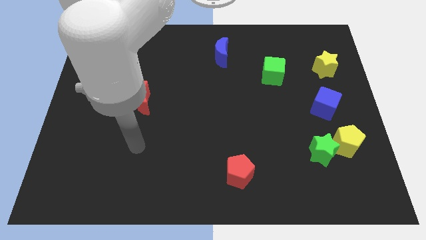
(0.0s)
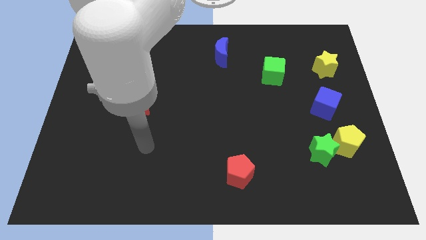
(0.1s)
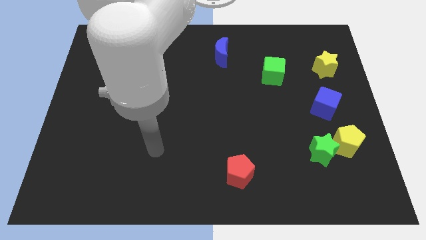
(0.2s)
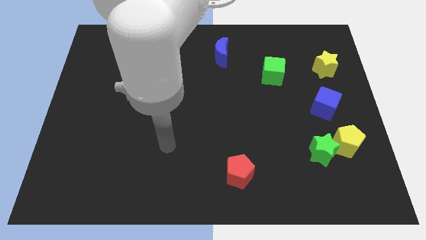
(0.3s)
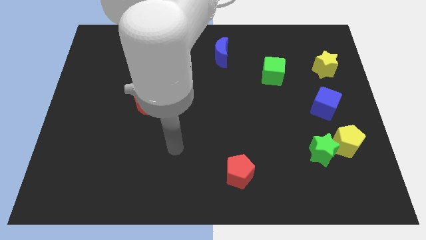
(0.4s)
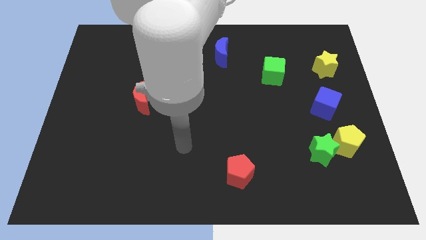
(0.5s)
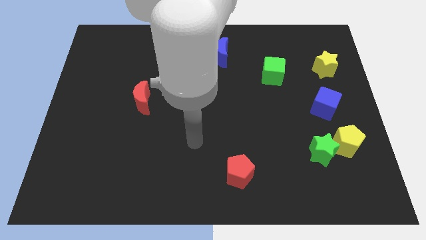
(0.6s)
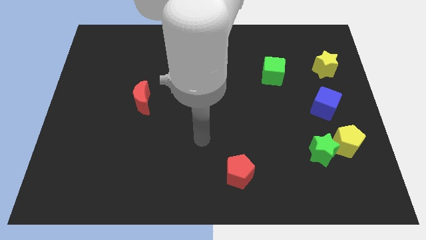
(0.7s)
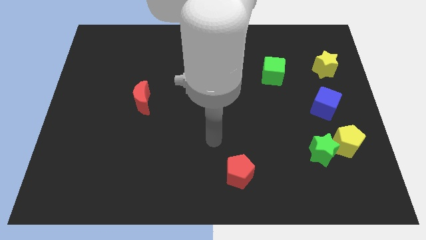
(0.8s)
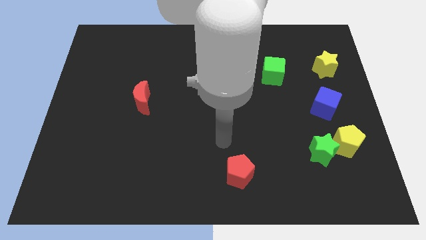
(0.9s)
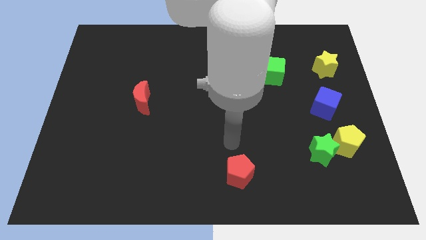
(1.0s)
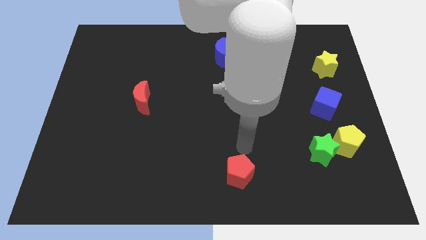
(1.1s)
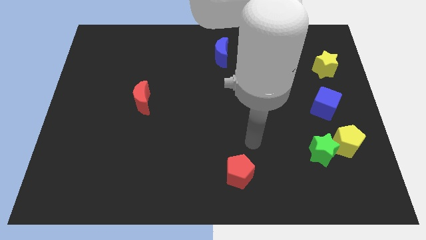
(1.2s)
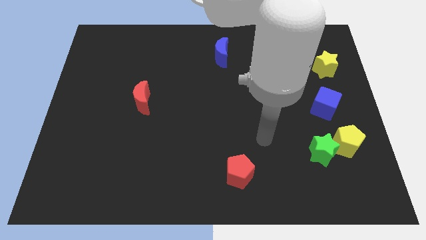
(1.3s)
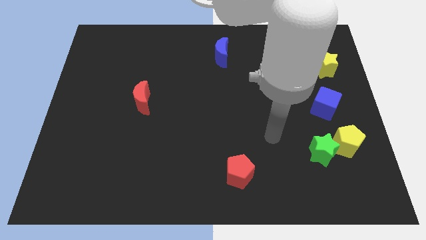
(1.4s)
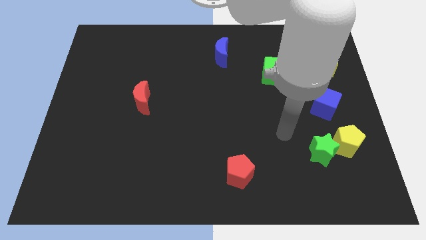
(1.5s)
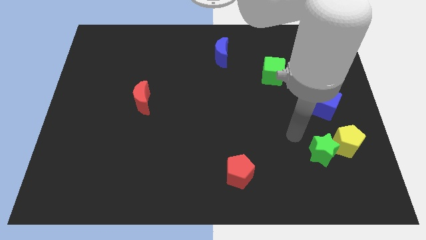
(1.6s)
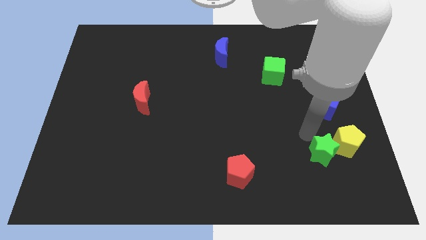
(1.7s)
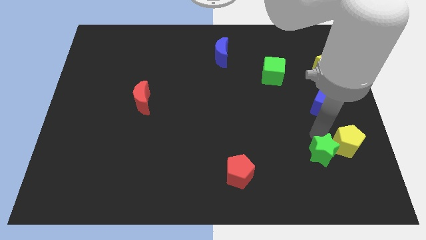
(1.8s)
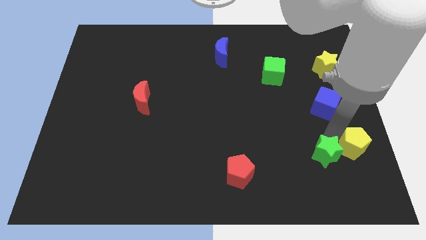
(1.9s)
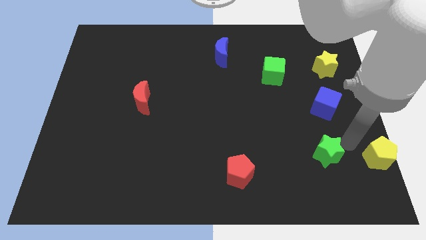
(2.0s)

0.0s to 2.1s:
separate the green star from the yellow pentagon

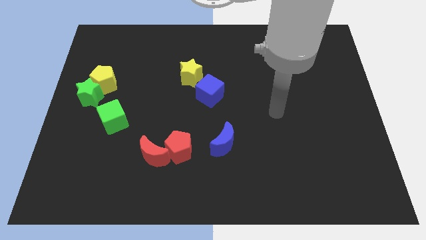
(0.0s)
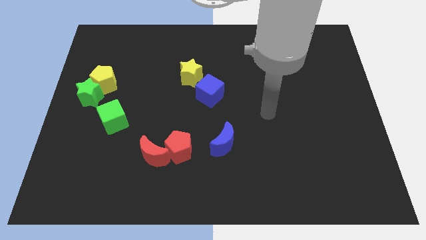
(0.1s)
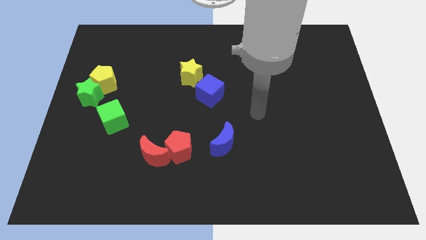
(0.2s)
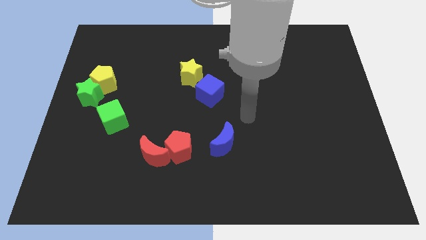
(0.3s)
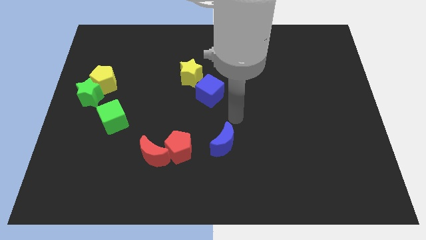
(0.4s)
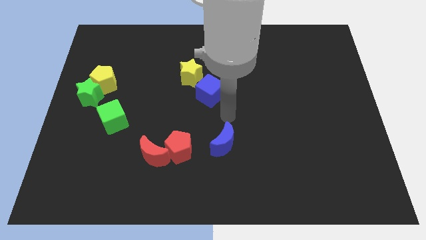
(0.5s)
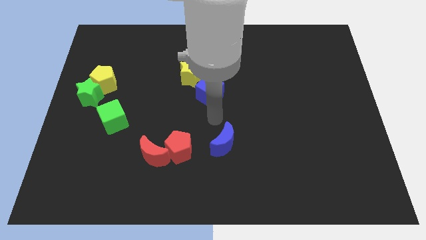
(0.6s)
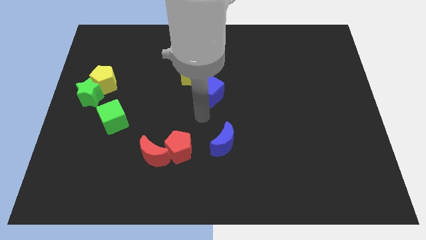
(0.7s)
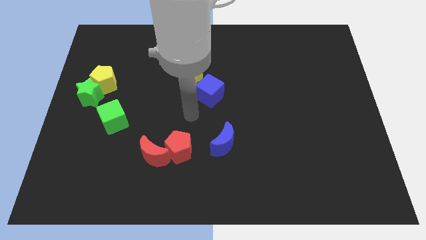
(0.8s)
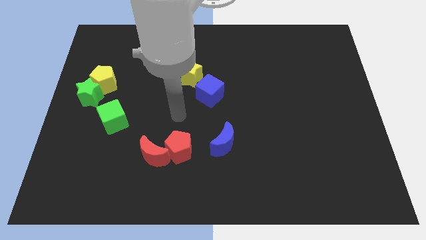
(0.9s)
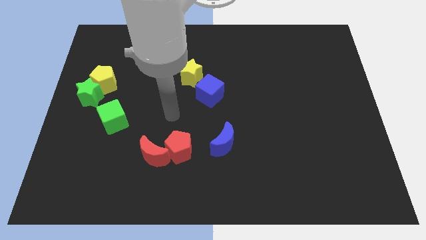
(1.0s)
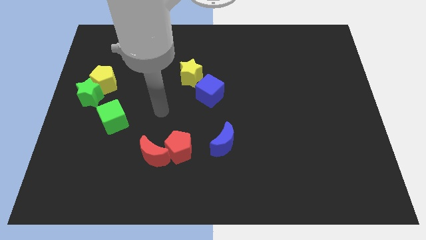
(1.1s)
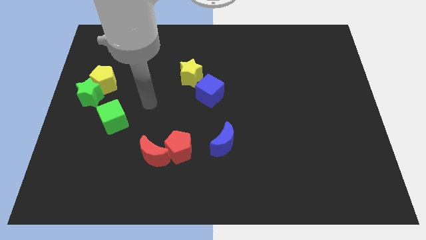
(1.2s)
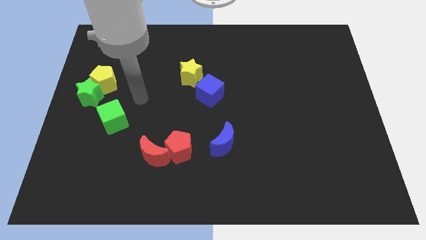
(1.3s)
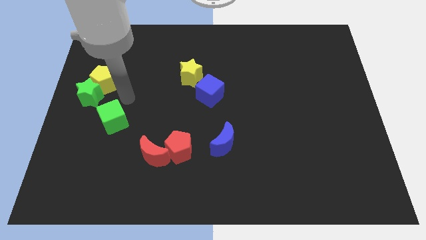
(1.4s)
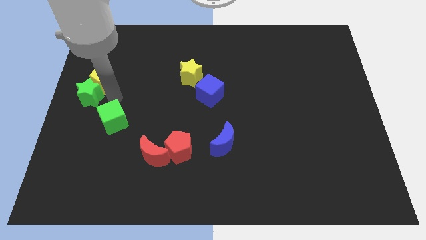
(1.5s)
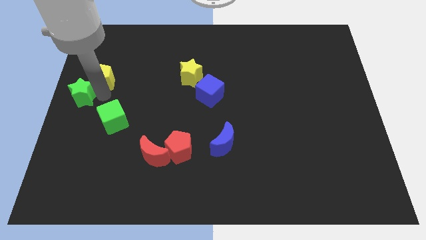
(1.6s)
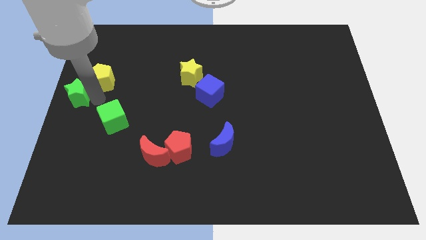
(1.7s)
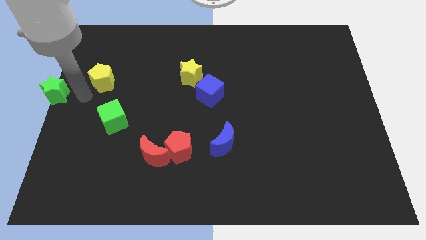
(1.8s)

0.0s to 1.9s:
move the yellow pentagon away from the green star

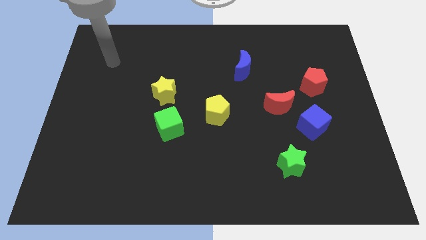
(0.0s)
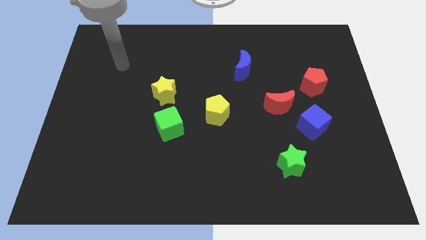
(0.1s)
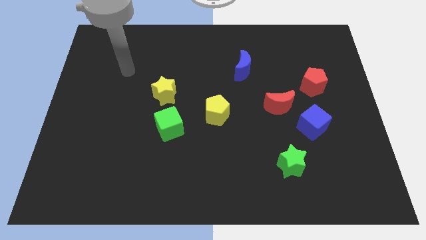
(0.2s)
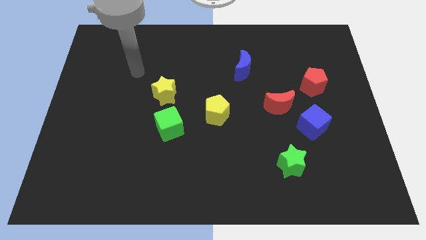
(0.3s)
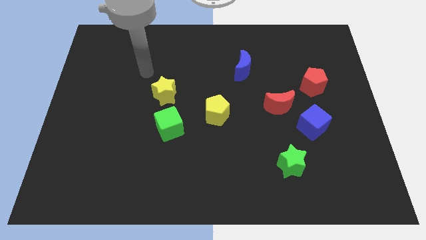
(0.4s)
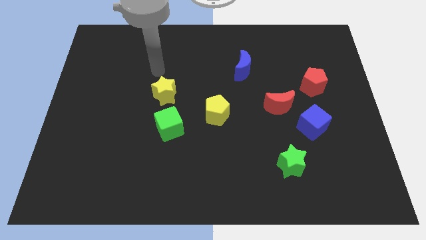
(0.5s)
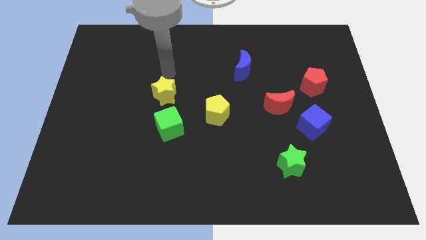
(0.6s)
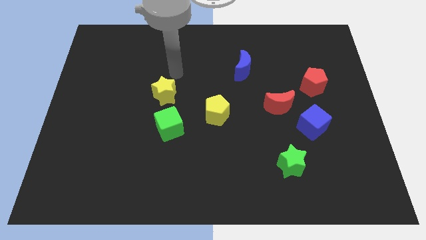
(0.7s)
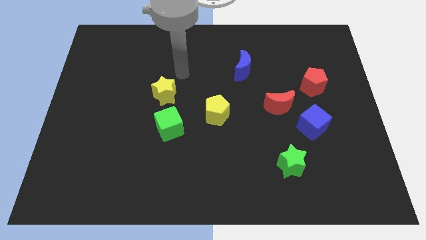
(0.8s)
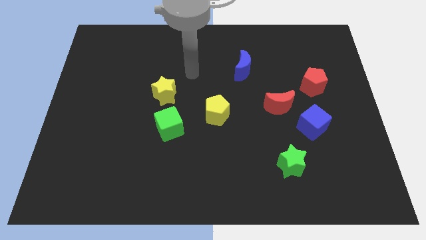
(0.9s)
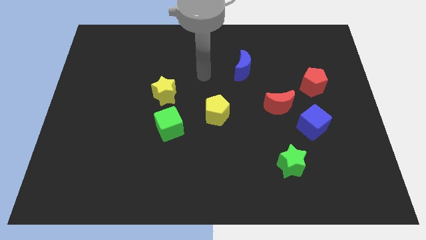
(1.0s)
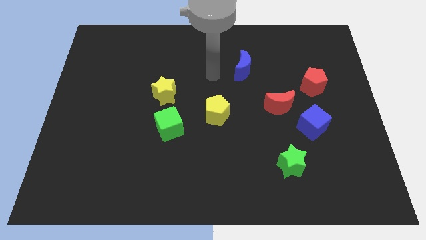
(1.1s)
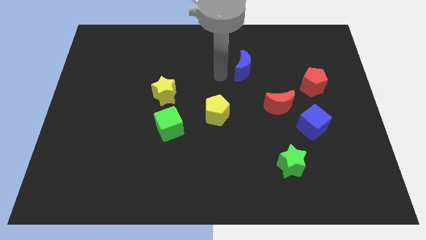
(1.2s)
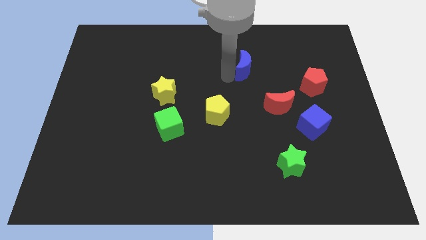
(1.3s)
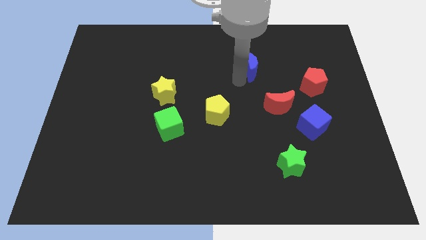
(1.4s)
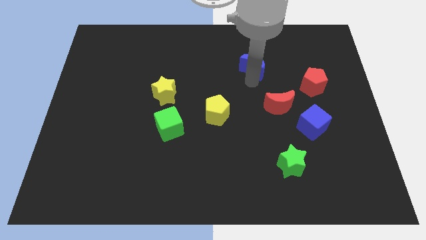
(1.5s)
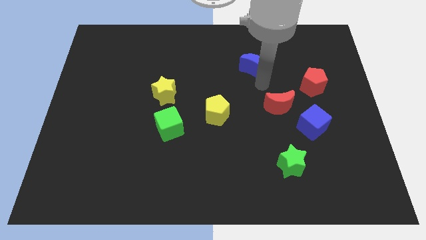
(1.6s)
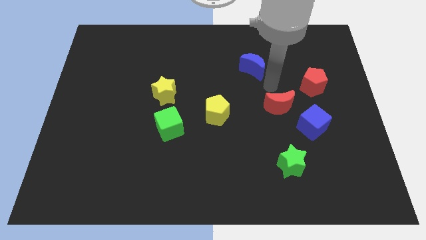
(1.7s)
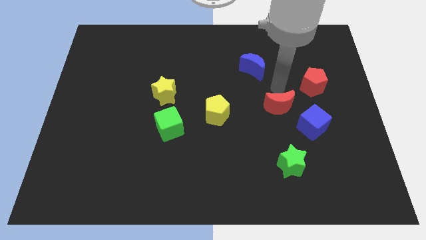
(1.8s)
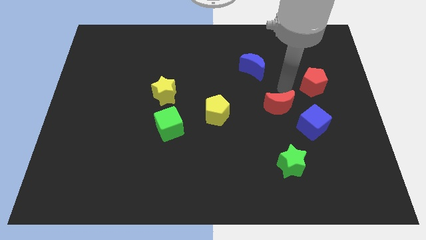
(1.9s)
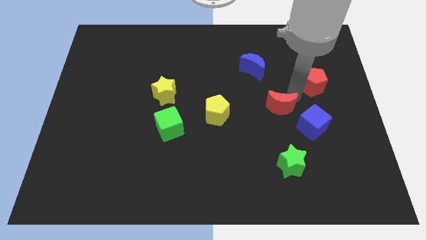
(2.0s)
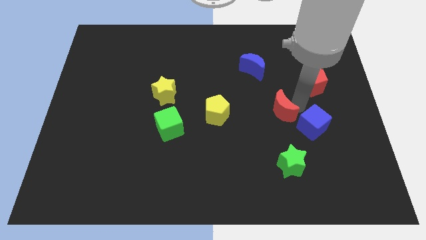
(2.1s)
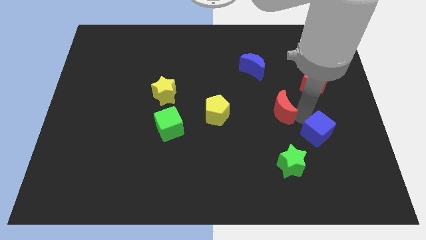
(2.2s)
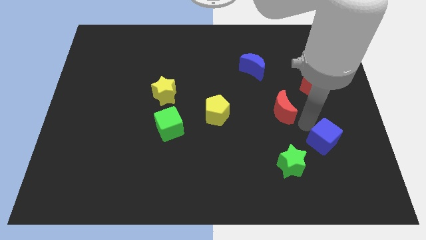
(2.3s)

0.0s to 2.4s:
pull the red moon apart from the blue cube

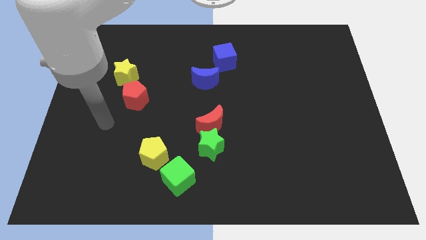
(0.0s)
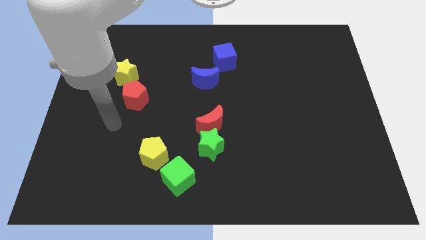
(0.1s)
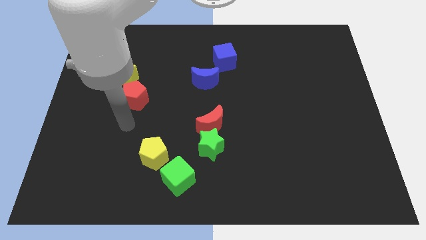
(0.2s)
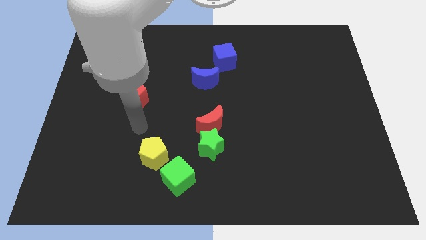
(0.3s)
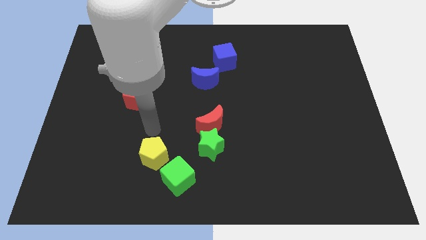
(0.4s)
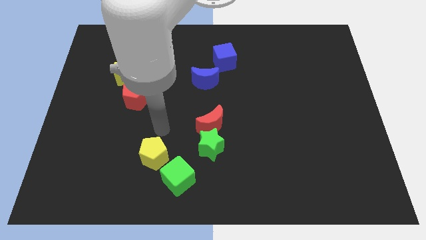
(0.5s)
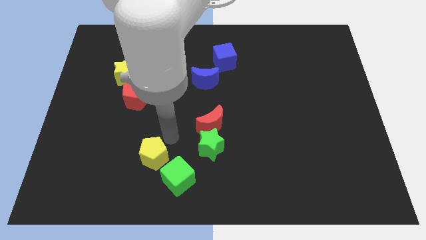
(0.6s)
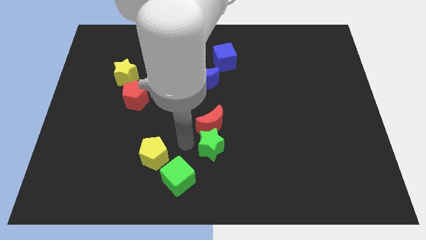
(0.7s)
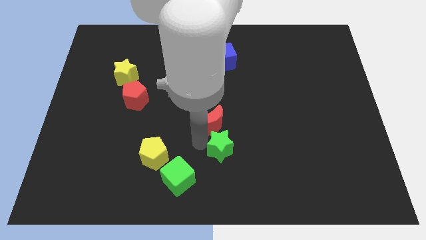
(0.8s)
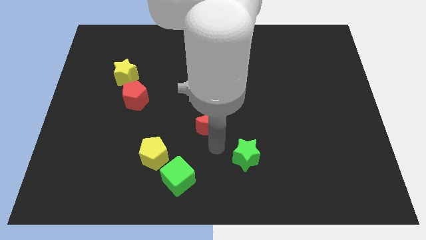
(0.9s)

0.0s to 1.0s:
separate the red moon from the green star

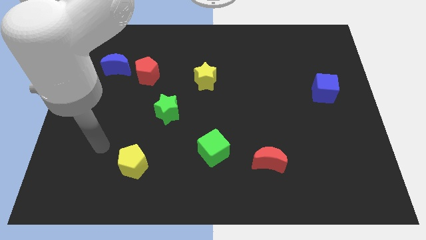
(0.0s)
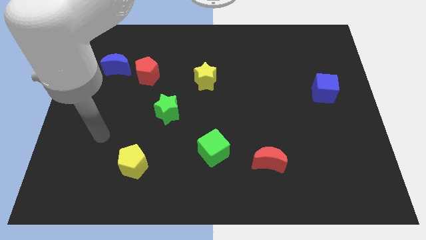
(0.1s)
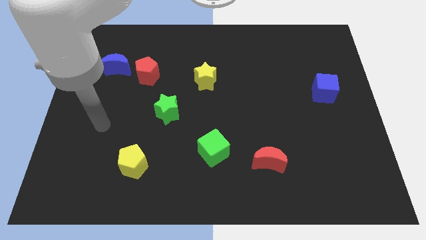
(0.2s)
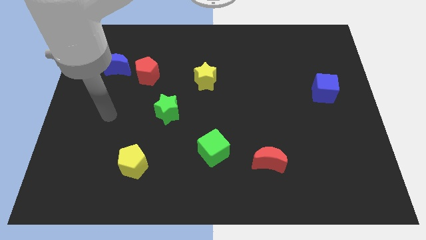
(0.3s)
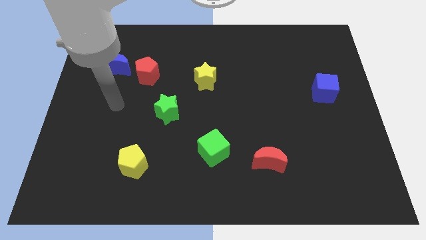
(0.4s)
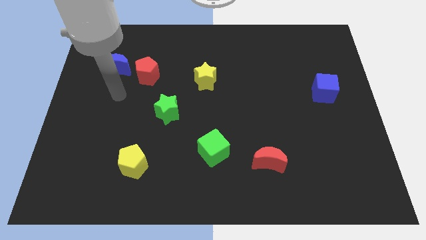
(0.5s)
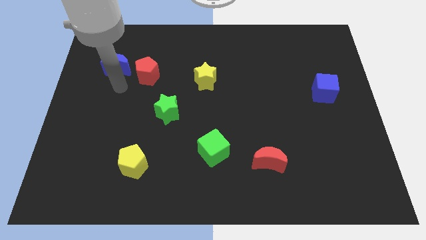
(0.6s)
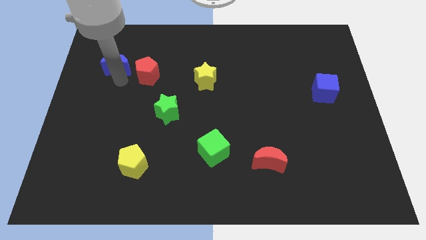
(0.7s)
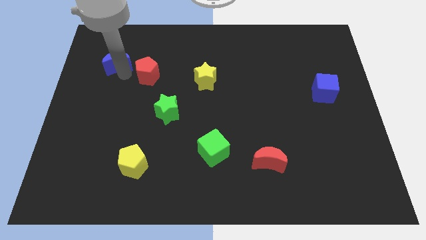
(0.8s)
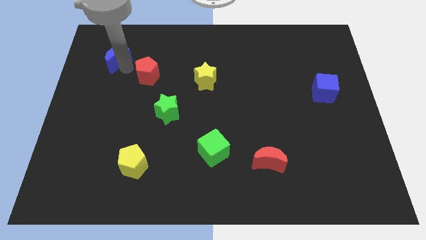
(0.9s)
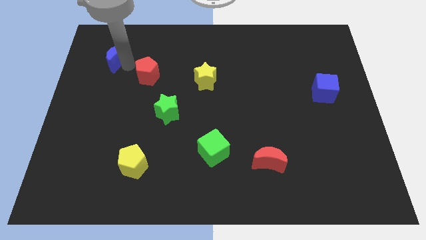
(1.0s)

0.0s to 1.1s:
pull the red pentagon apart from the blue moon

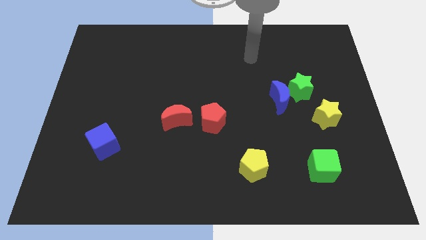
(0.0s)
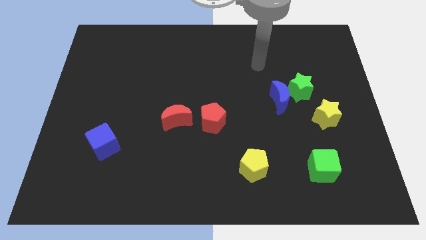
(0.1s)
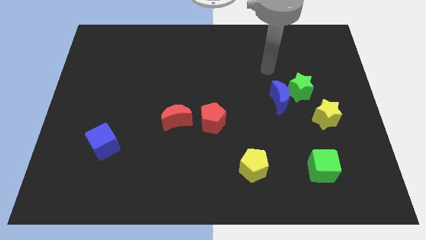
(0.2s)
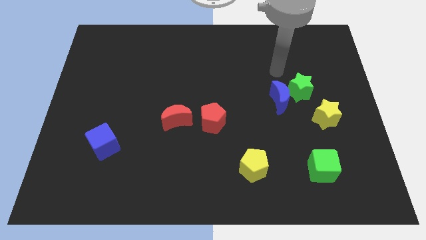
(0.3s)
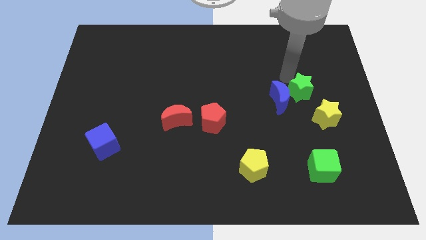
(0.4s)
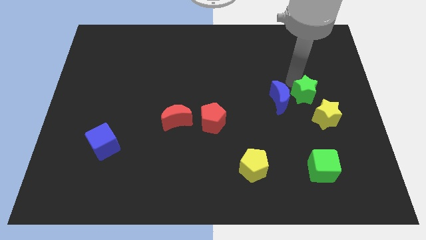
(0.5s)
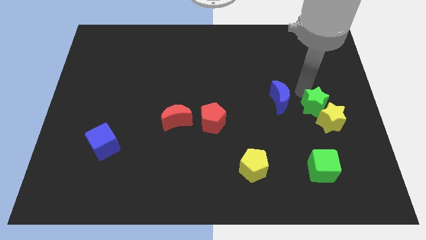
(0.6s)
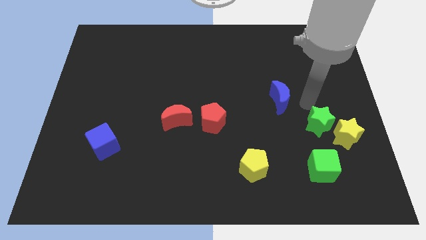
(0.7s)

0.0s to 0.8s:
pull the blue moon apart from the green star
